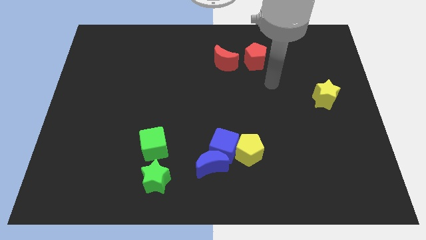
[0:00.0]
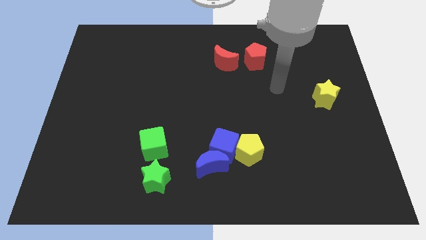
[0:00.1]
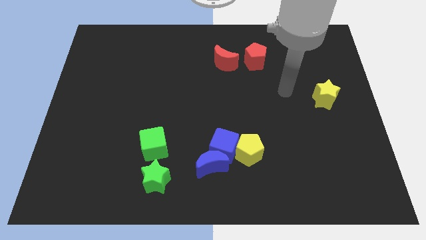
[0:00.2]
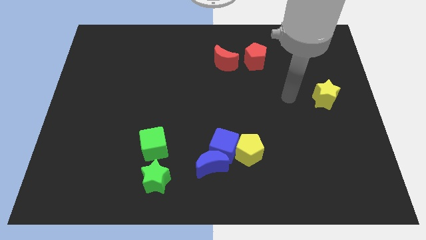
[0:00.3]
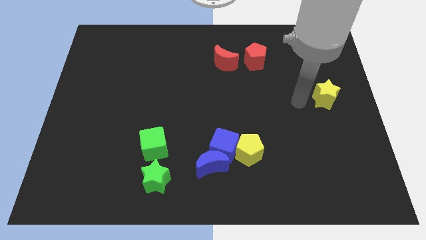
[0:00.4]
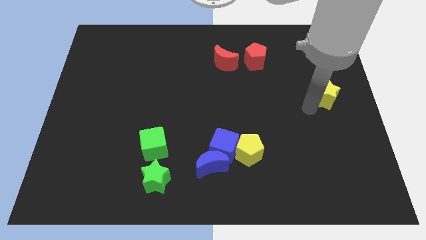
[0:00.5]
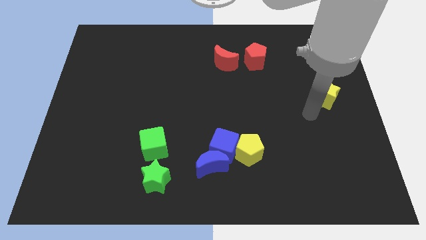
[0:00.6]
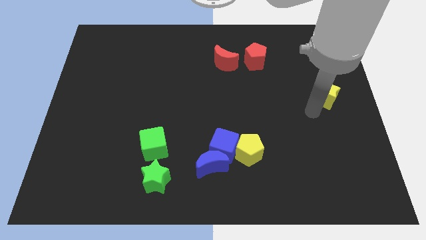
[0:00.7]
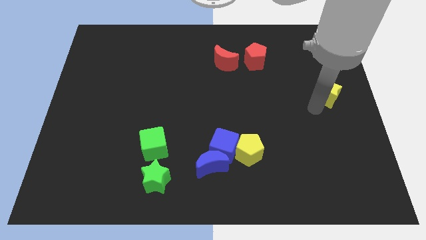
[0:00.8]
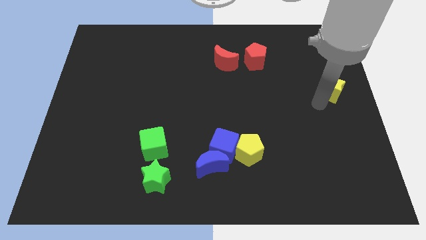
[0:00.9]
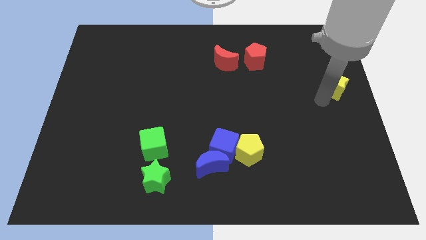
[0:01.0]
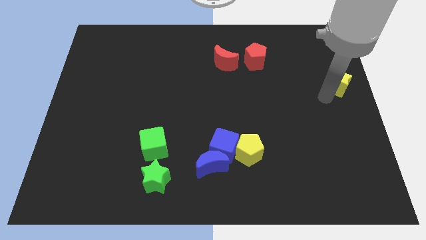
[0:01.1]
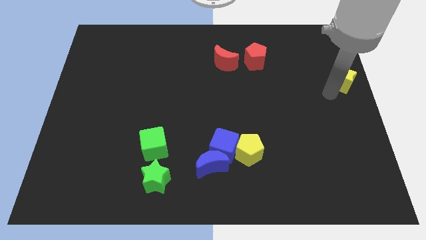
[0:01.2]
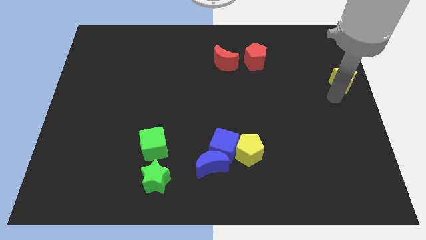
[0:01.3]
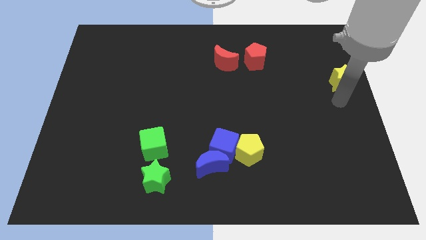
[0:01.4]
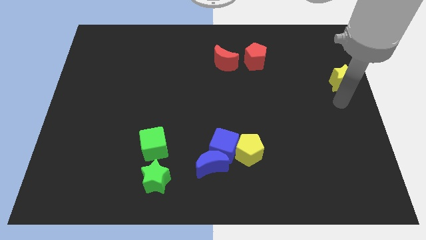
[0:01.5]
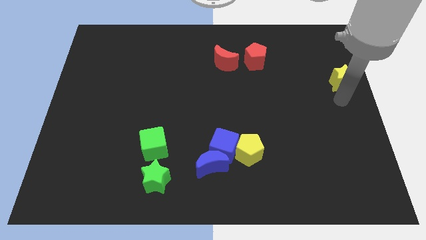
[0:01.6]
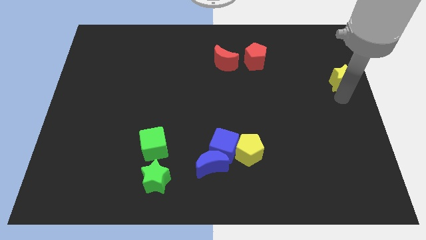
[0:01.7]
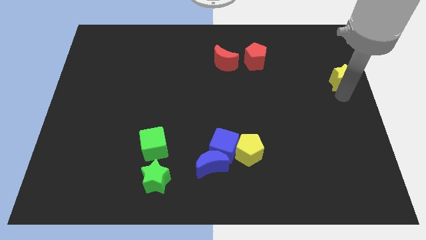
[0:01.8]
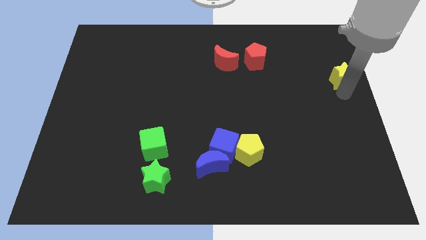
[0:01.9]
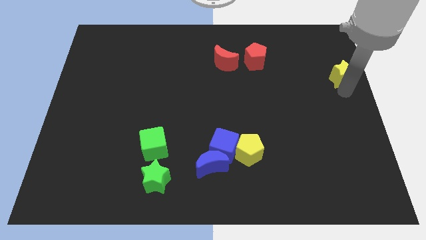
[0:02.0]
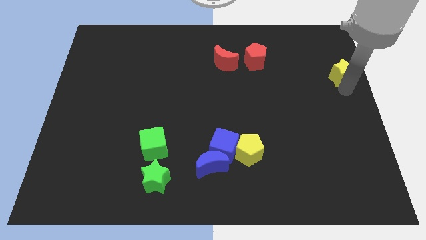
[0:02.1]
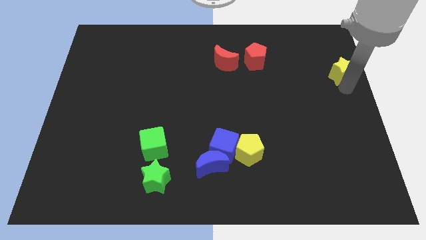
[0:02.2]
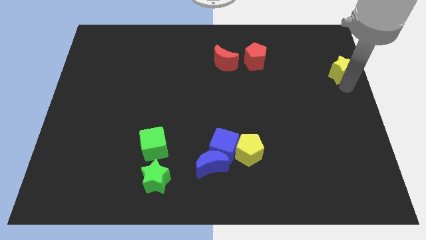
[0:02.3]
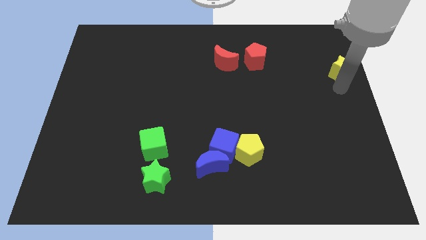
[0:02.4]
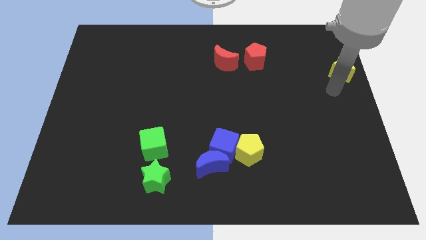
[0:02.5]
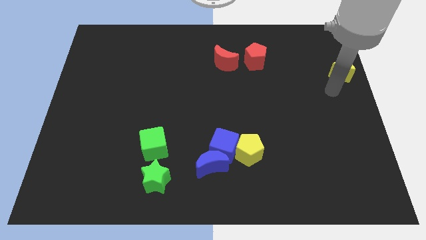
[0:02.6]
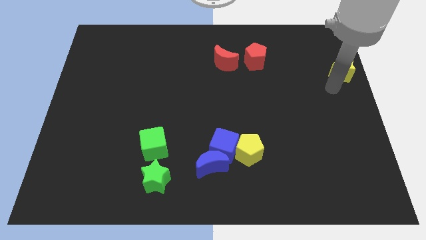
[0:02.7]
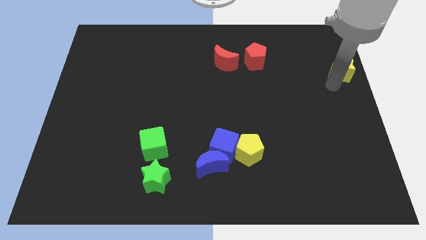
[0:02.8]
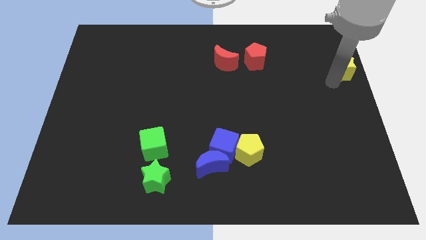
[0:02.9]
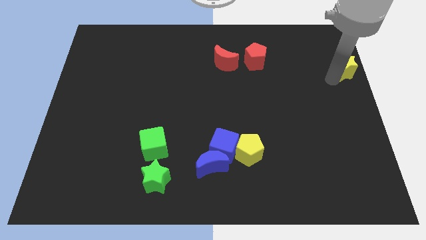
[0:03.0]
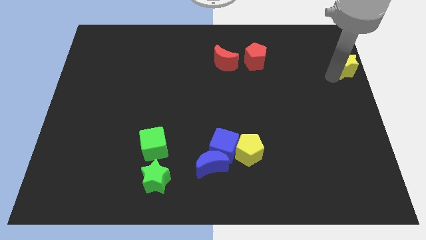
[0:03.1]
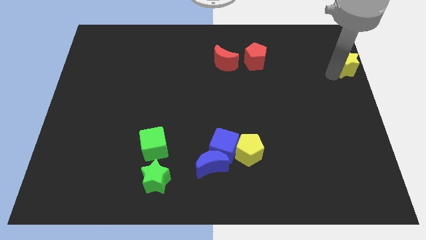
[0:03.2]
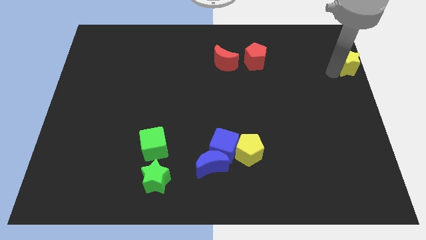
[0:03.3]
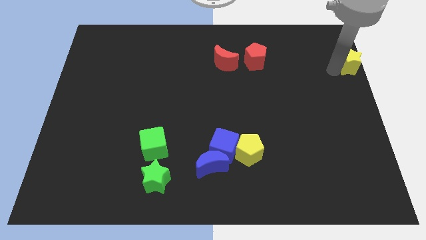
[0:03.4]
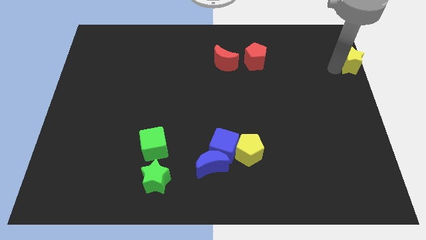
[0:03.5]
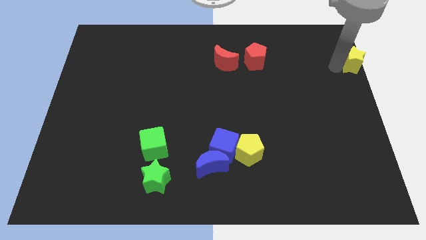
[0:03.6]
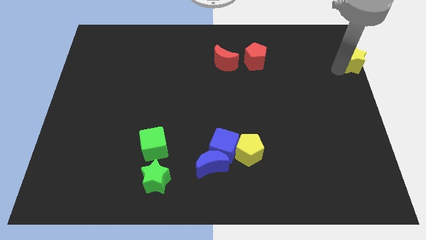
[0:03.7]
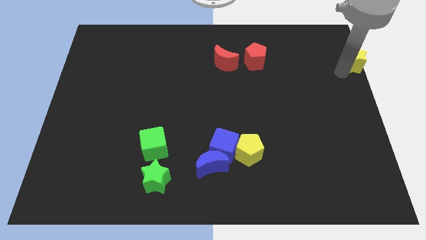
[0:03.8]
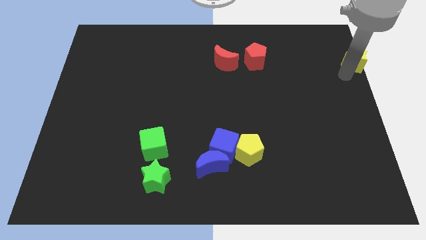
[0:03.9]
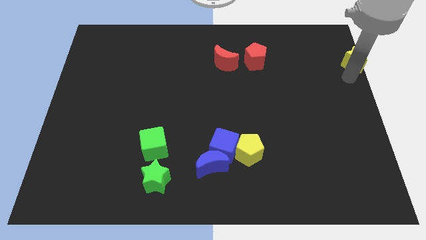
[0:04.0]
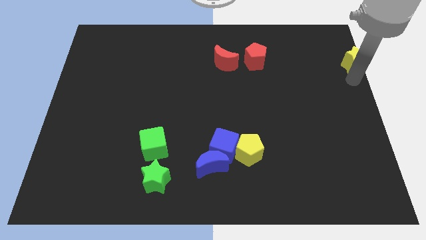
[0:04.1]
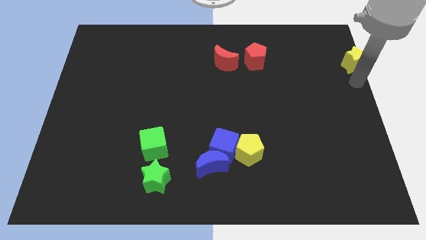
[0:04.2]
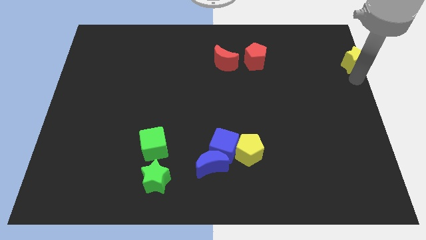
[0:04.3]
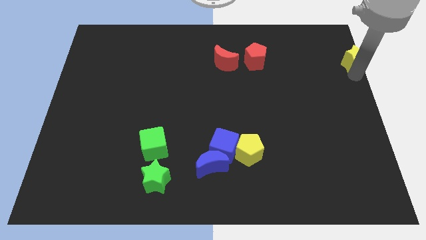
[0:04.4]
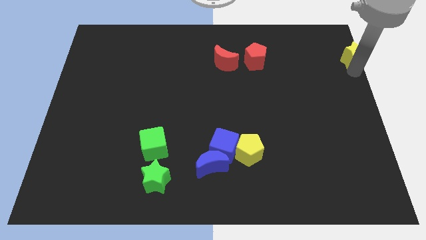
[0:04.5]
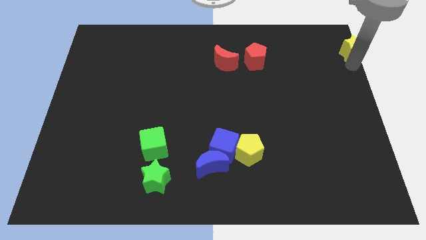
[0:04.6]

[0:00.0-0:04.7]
push the yellow star to the top right corner

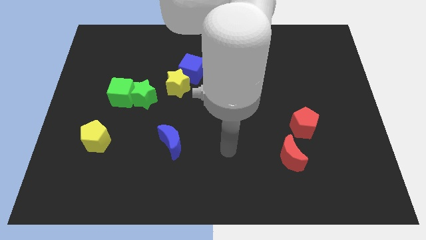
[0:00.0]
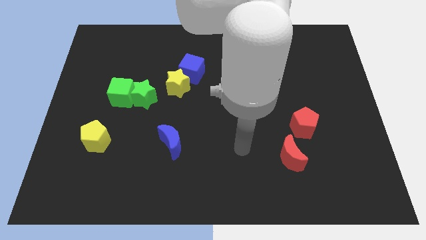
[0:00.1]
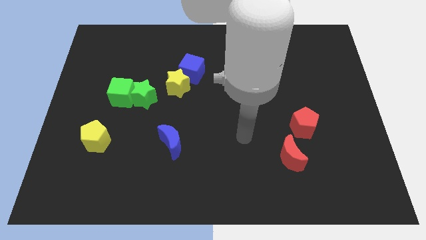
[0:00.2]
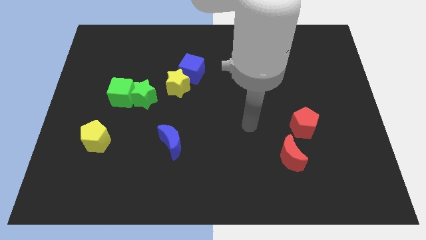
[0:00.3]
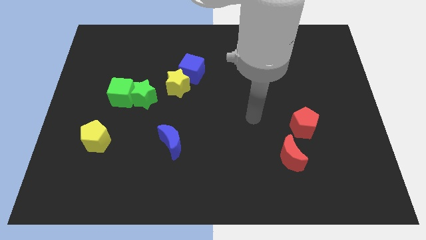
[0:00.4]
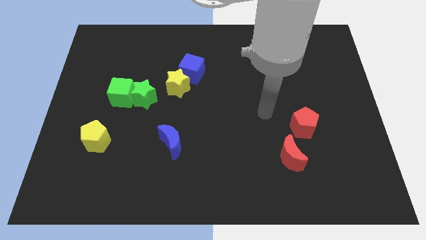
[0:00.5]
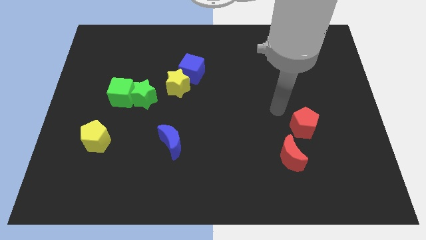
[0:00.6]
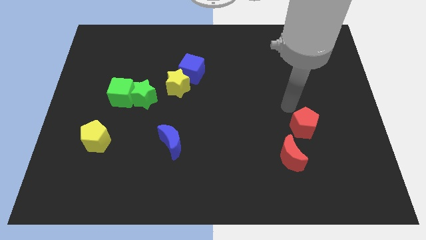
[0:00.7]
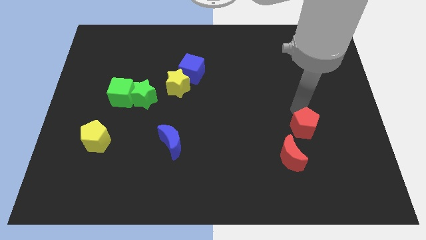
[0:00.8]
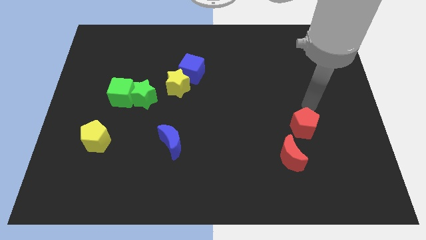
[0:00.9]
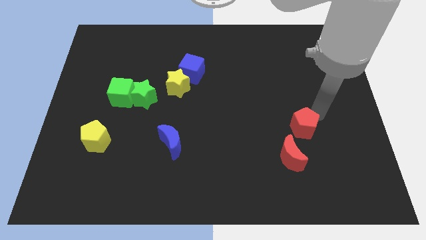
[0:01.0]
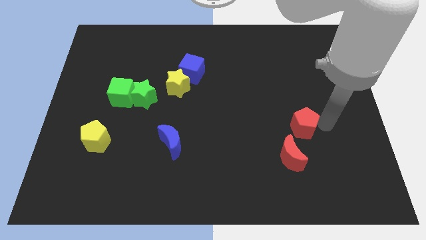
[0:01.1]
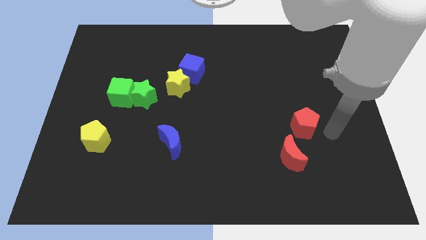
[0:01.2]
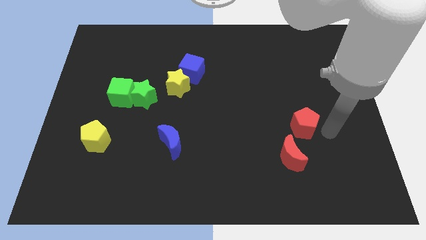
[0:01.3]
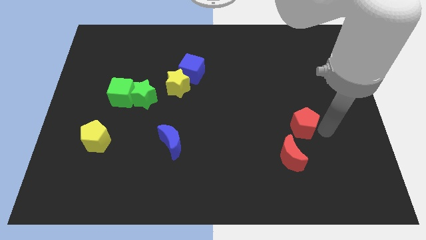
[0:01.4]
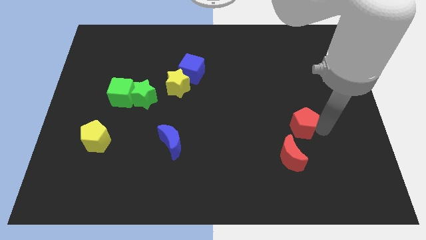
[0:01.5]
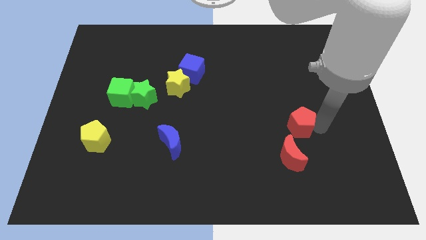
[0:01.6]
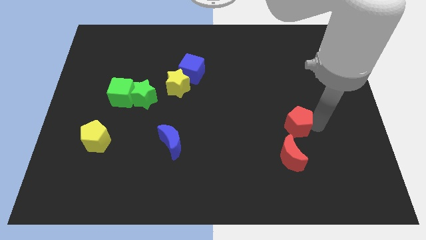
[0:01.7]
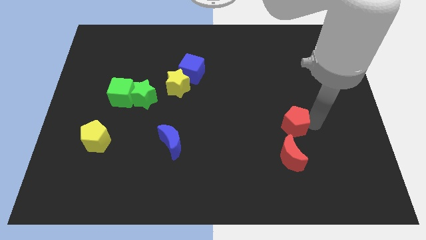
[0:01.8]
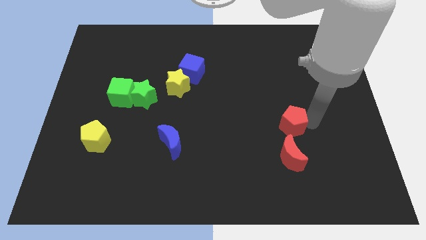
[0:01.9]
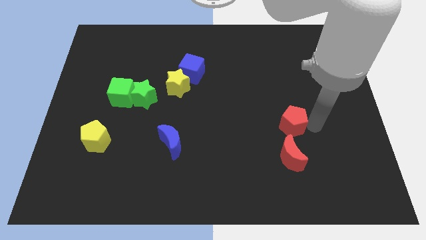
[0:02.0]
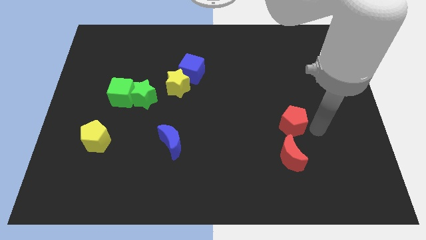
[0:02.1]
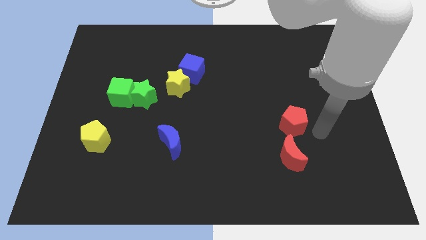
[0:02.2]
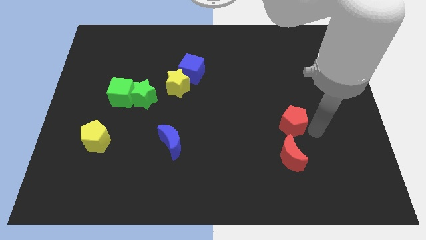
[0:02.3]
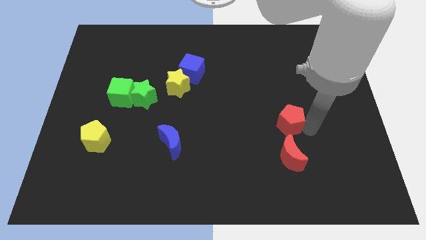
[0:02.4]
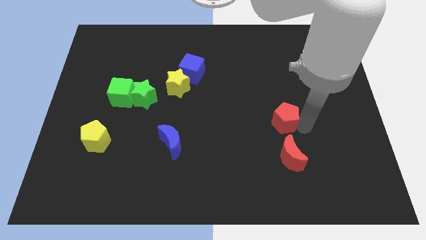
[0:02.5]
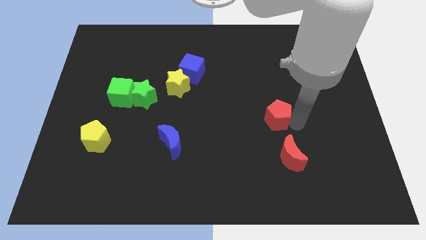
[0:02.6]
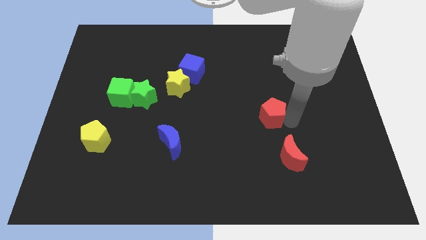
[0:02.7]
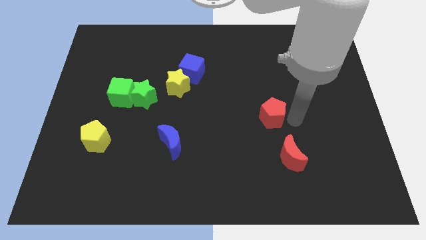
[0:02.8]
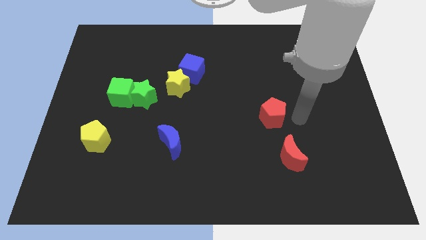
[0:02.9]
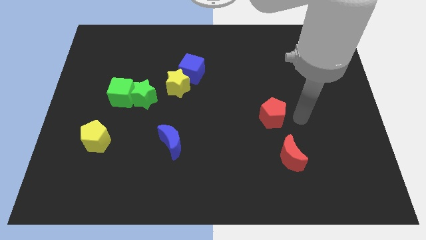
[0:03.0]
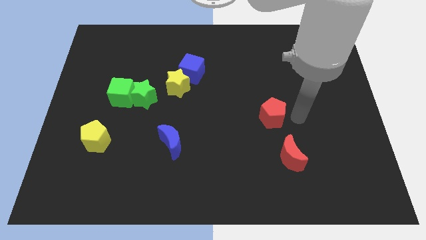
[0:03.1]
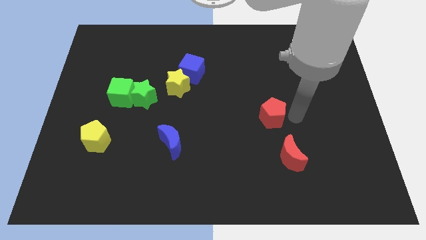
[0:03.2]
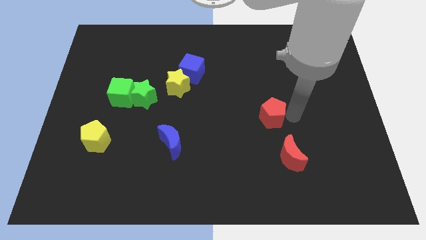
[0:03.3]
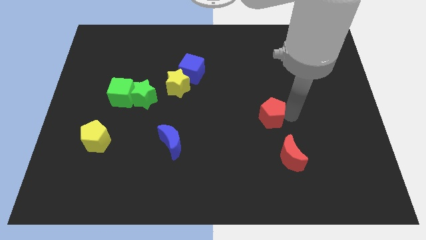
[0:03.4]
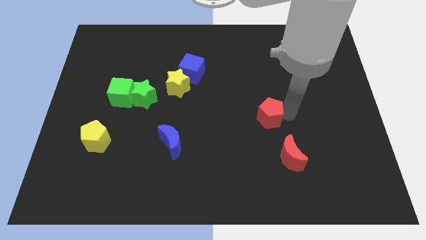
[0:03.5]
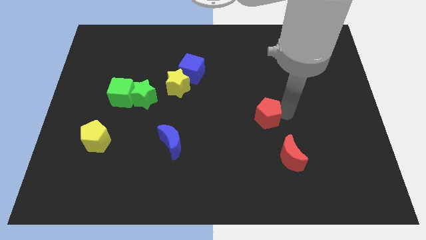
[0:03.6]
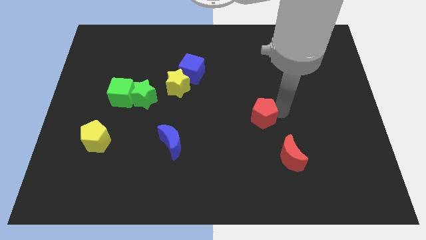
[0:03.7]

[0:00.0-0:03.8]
push the red pentagon to the center
